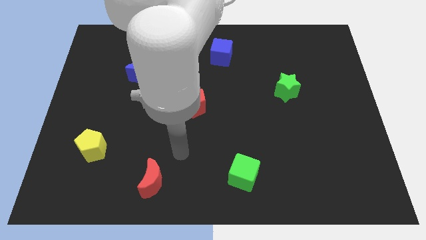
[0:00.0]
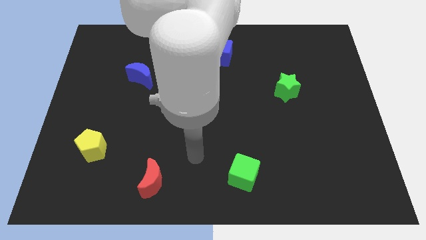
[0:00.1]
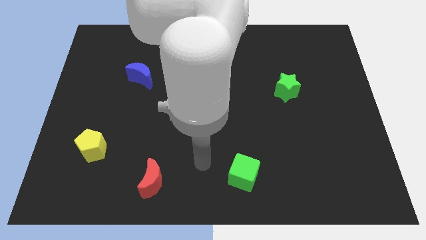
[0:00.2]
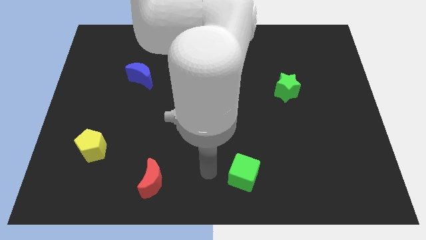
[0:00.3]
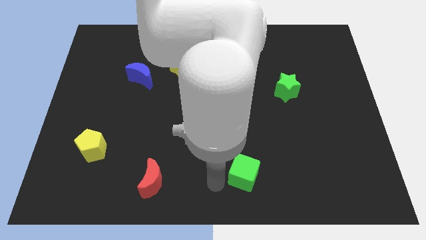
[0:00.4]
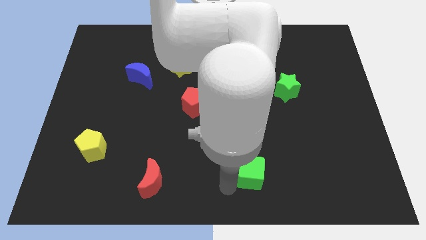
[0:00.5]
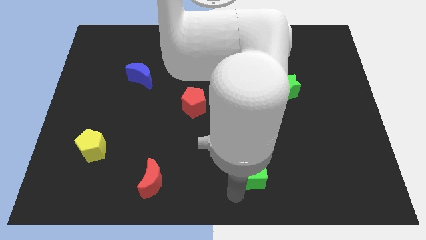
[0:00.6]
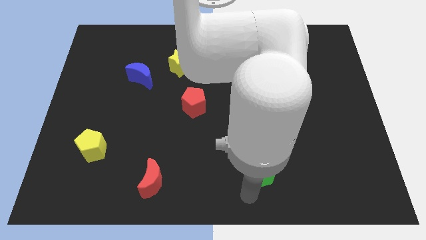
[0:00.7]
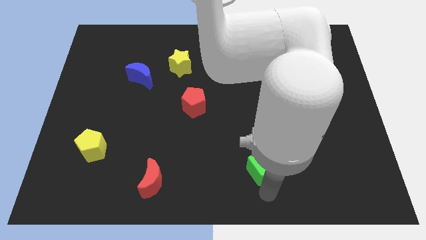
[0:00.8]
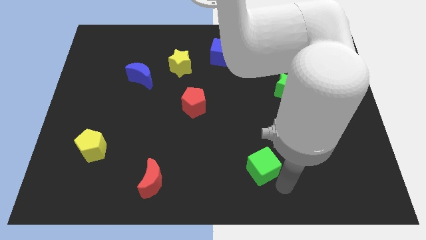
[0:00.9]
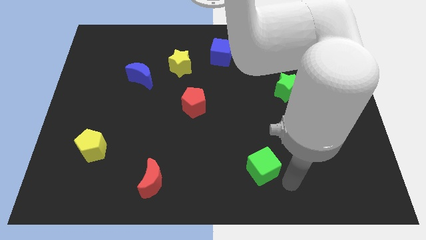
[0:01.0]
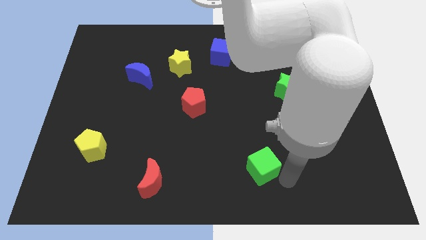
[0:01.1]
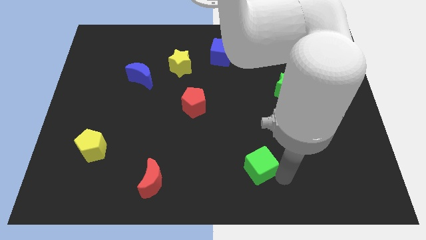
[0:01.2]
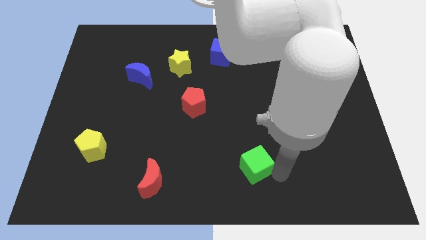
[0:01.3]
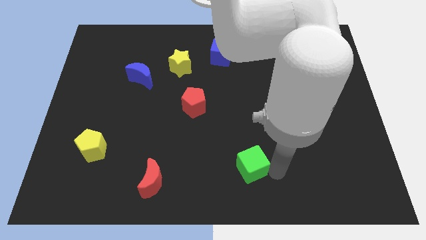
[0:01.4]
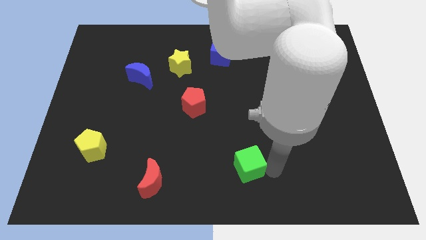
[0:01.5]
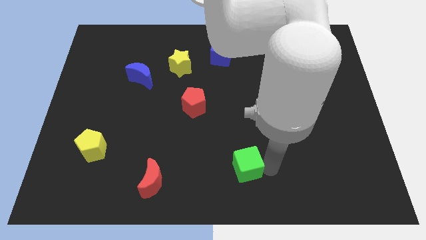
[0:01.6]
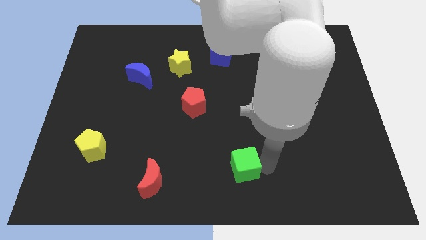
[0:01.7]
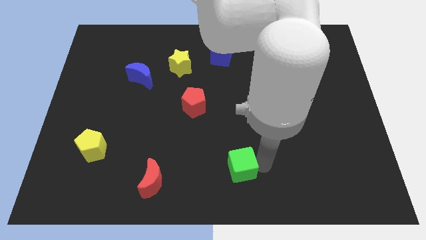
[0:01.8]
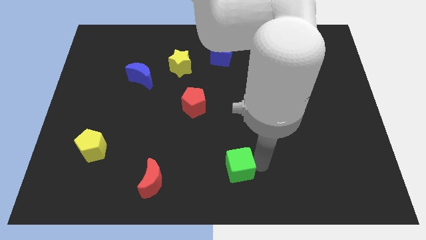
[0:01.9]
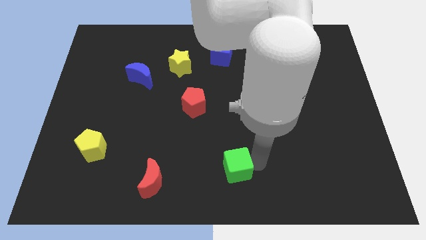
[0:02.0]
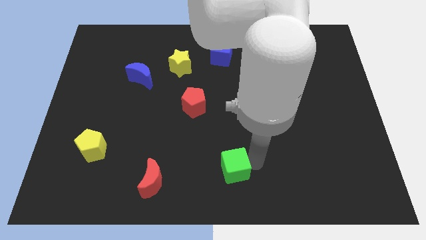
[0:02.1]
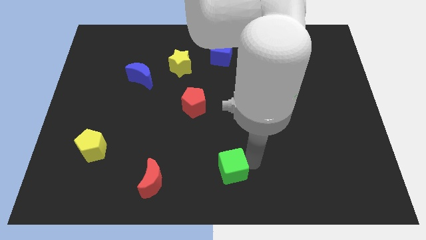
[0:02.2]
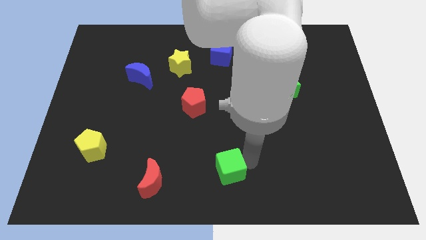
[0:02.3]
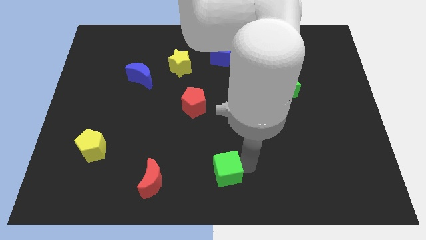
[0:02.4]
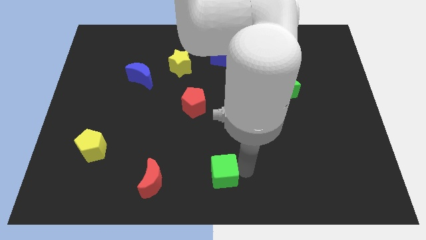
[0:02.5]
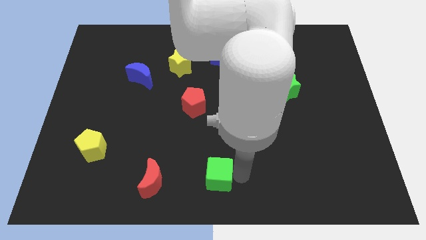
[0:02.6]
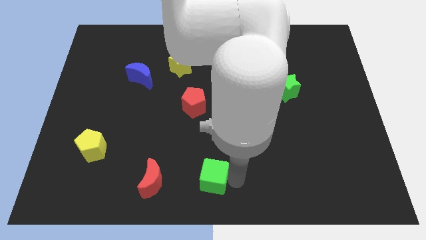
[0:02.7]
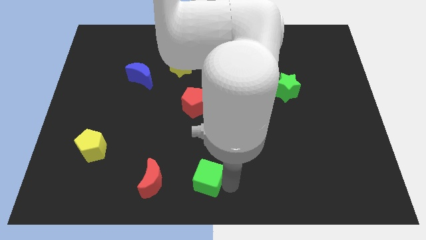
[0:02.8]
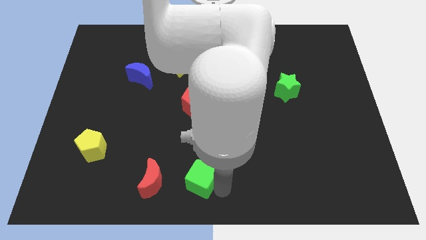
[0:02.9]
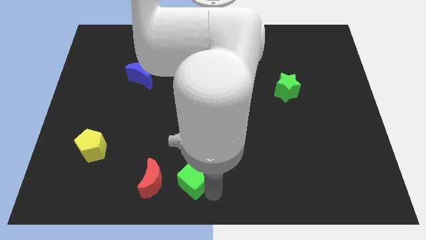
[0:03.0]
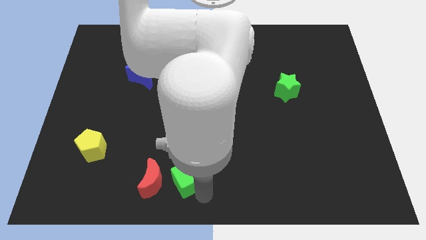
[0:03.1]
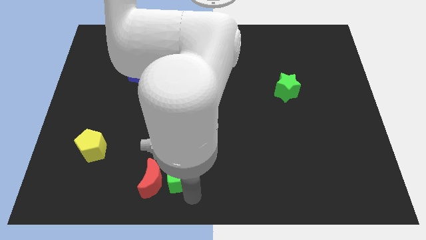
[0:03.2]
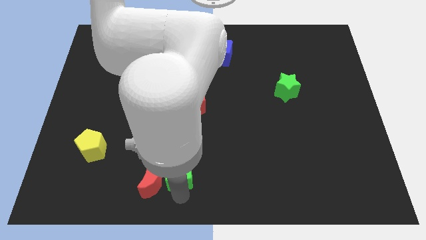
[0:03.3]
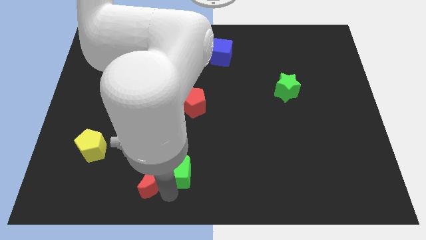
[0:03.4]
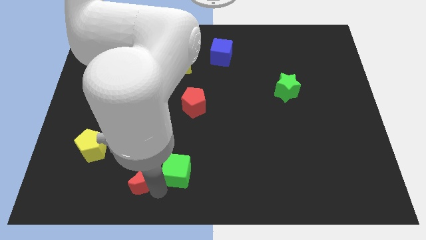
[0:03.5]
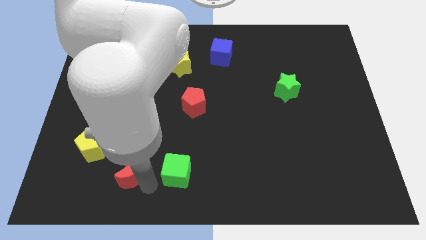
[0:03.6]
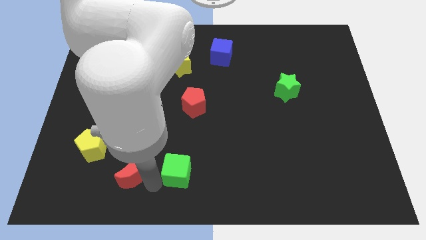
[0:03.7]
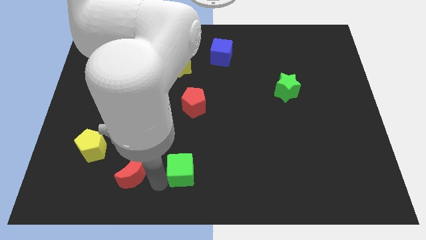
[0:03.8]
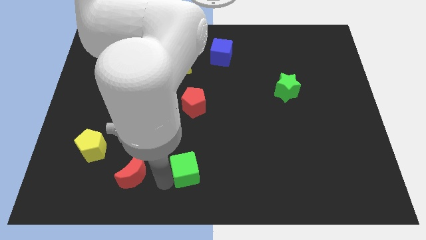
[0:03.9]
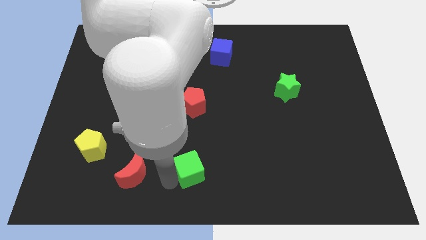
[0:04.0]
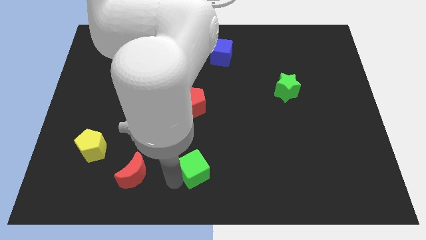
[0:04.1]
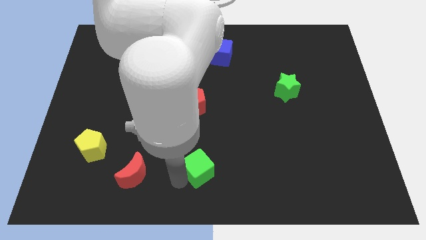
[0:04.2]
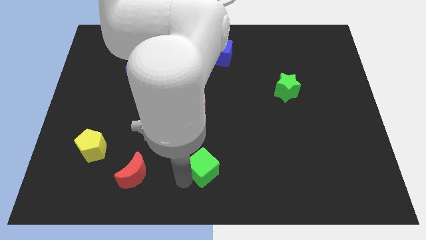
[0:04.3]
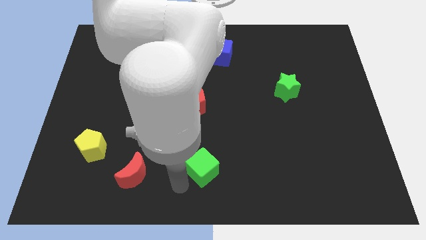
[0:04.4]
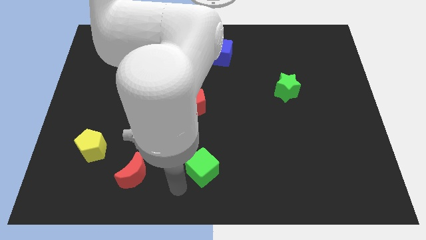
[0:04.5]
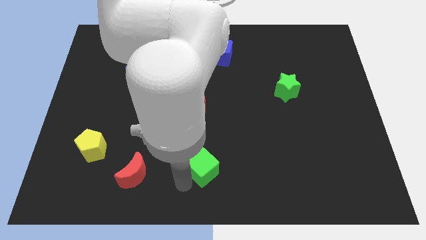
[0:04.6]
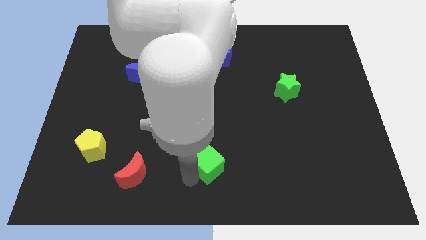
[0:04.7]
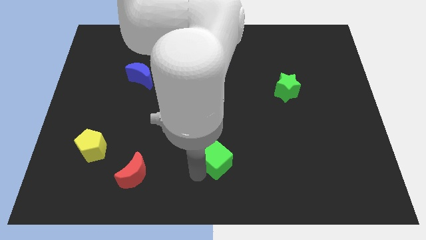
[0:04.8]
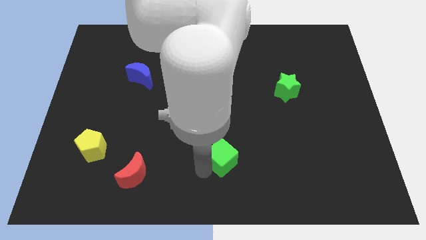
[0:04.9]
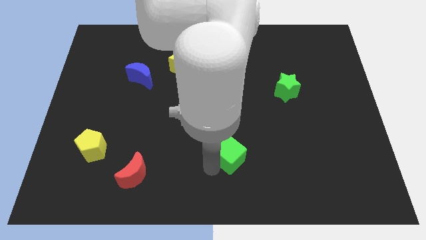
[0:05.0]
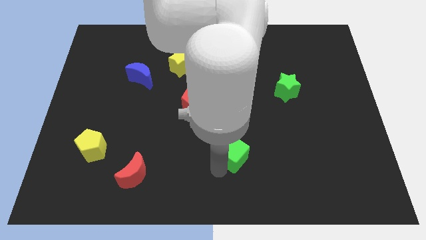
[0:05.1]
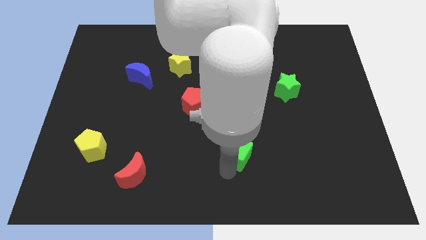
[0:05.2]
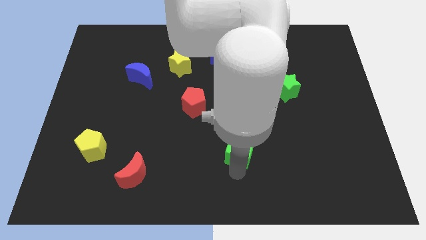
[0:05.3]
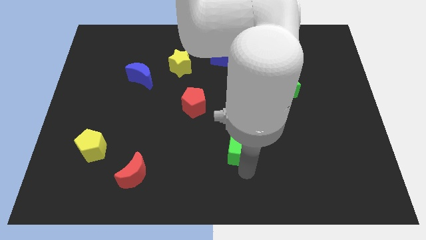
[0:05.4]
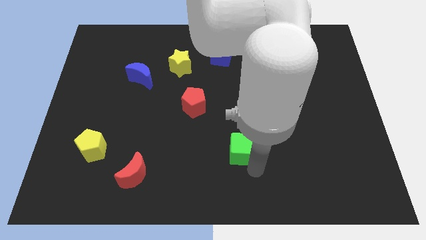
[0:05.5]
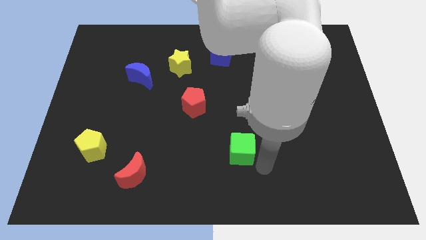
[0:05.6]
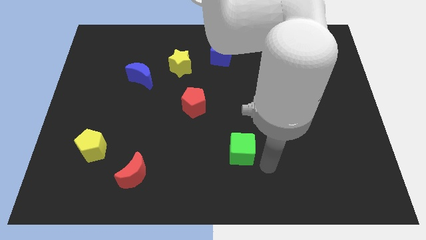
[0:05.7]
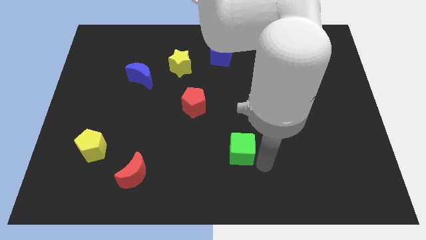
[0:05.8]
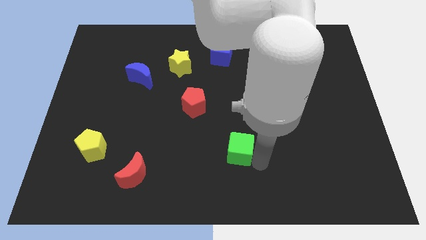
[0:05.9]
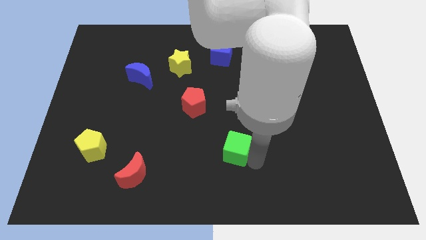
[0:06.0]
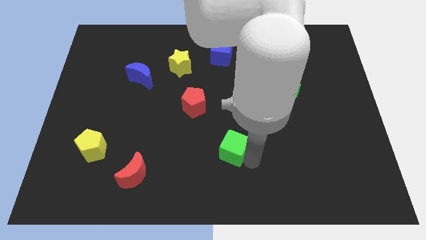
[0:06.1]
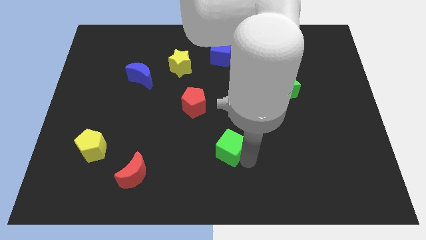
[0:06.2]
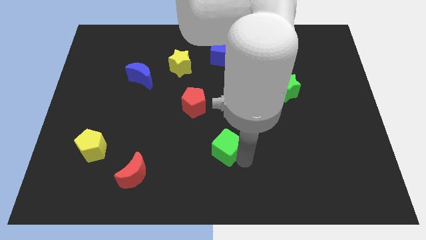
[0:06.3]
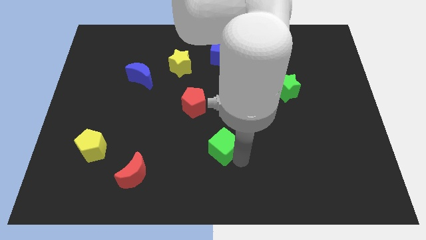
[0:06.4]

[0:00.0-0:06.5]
move the green cube upwards and then to the left a bit

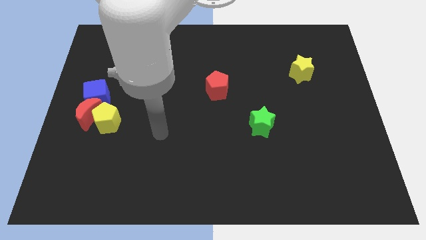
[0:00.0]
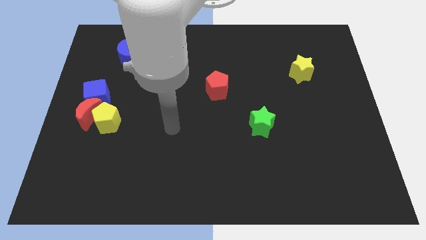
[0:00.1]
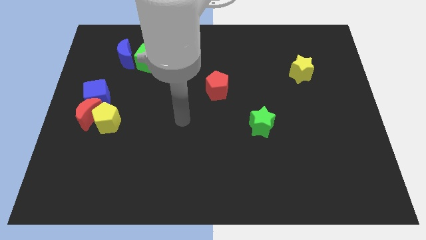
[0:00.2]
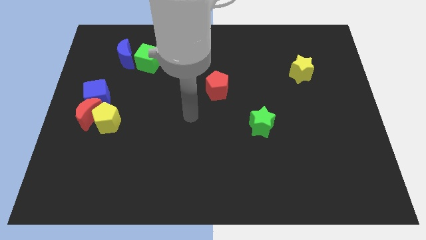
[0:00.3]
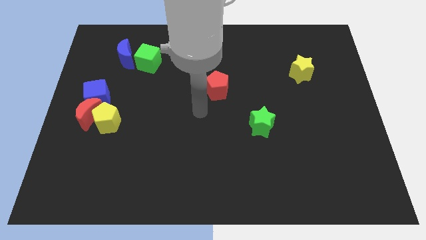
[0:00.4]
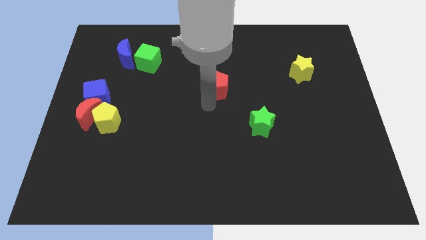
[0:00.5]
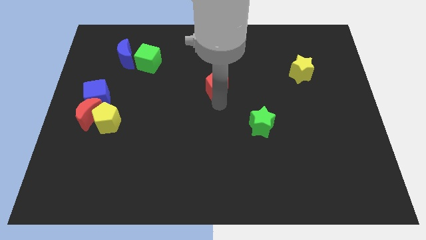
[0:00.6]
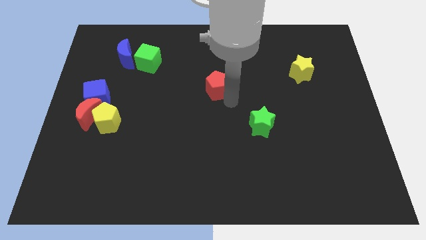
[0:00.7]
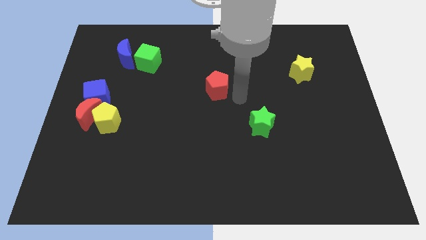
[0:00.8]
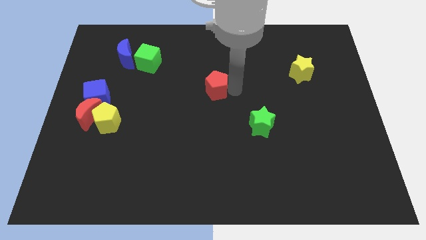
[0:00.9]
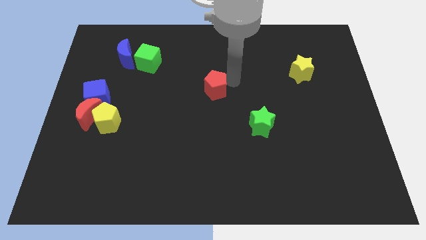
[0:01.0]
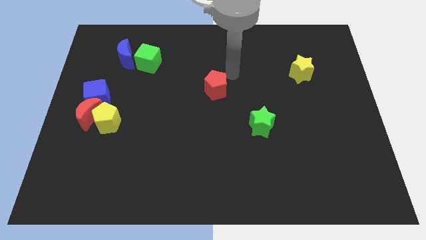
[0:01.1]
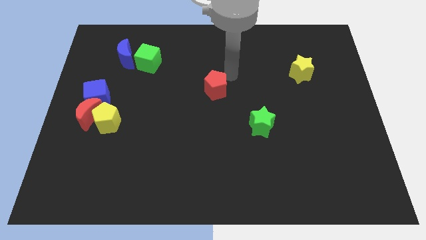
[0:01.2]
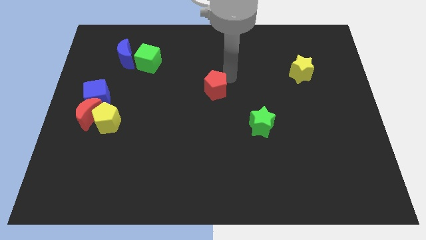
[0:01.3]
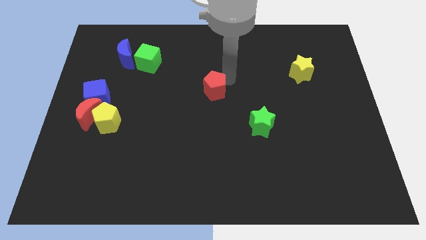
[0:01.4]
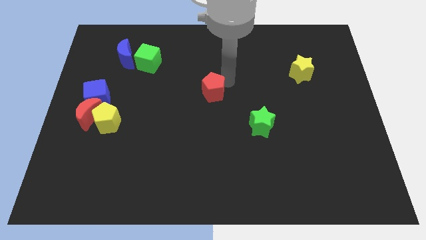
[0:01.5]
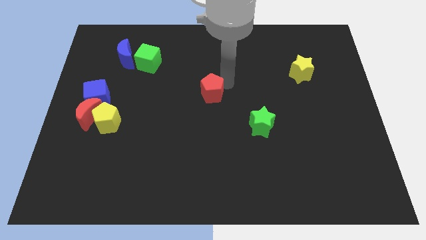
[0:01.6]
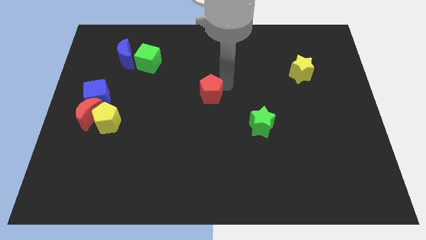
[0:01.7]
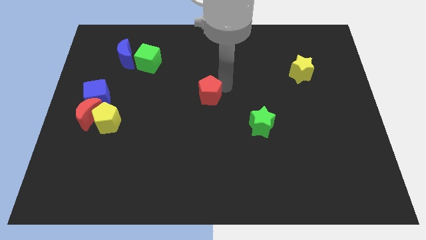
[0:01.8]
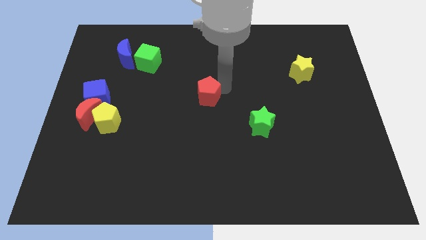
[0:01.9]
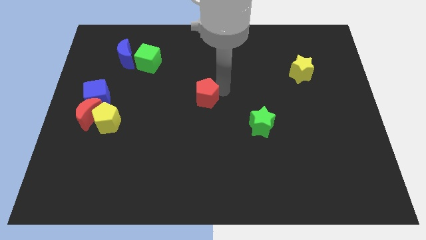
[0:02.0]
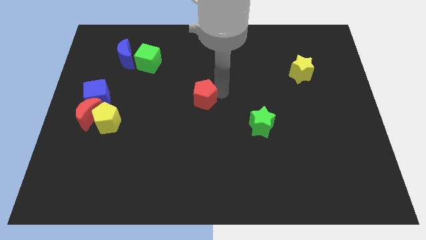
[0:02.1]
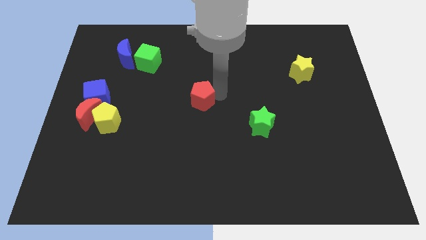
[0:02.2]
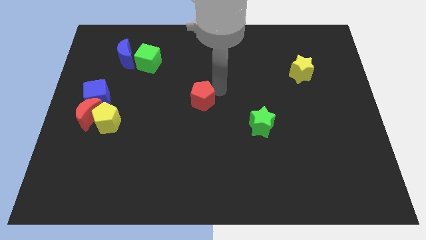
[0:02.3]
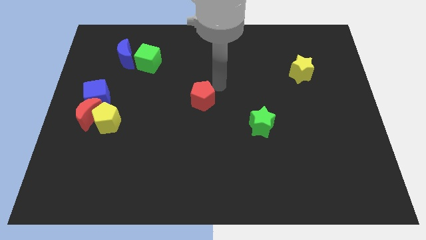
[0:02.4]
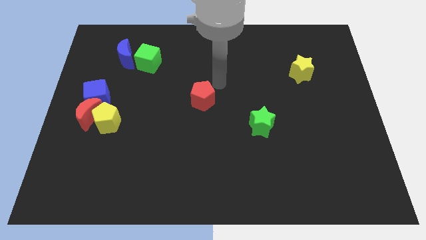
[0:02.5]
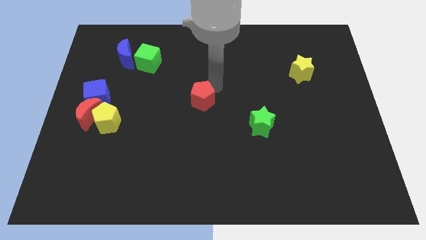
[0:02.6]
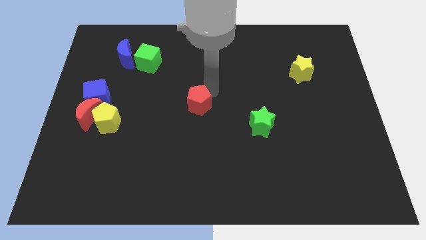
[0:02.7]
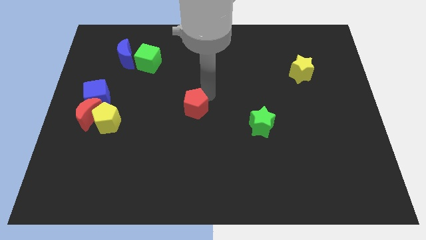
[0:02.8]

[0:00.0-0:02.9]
slide the red pentagon a little diagonally down and to the left
